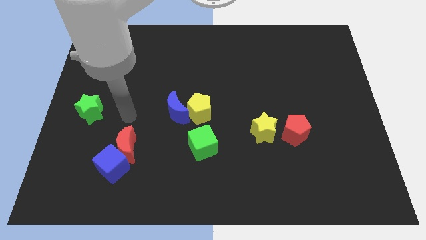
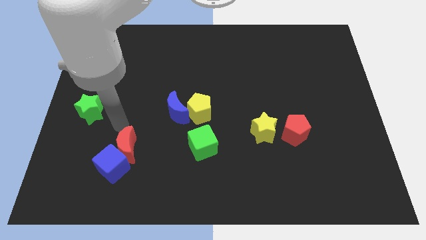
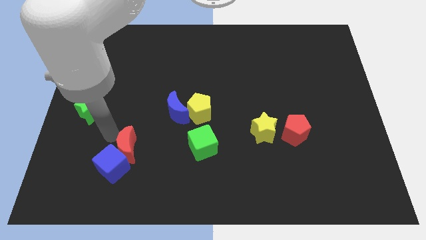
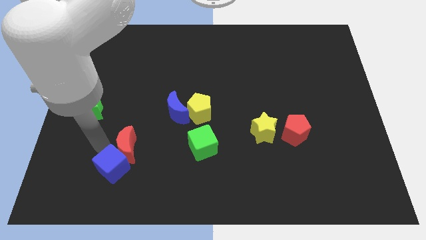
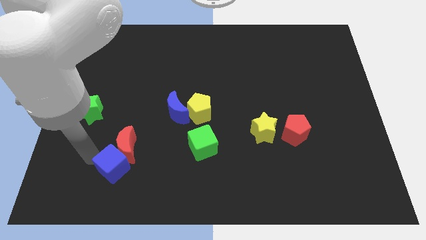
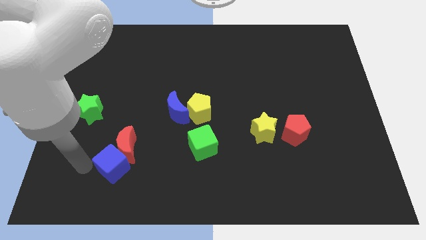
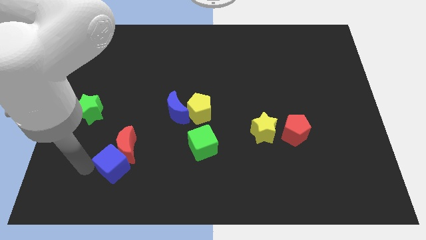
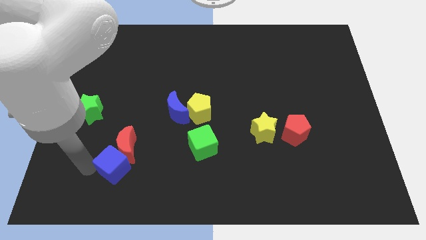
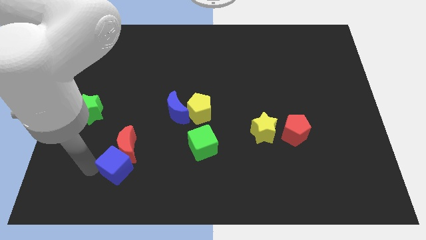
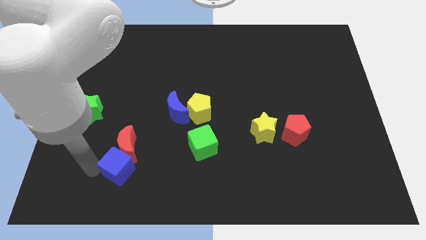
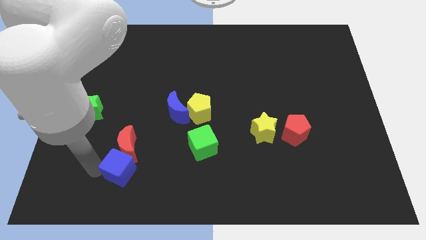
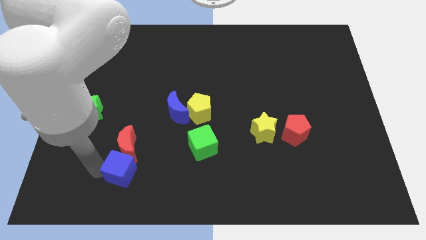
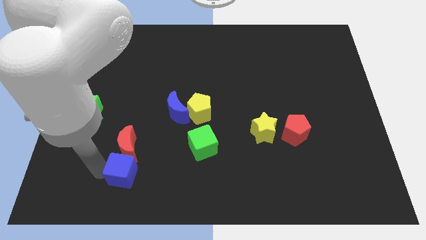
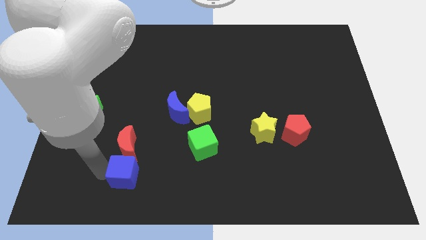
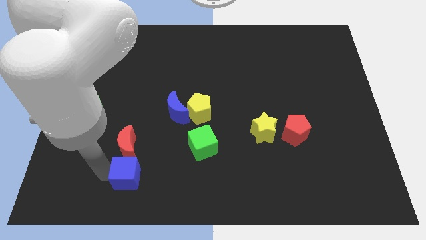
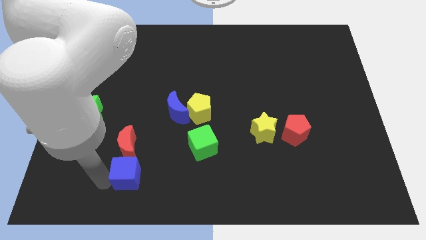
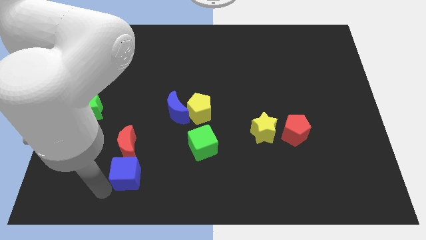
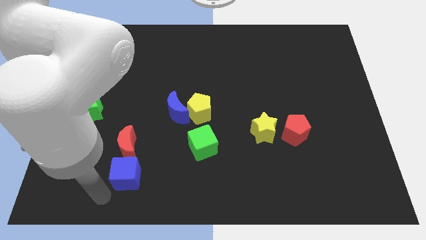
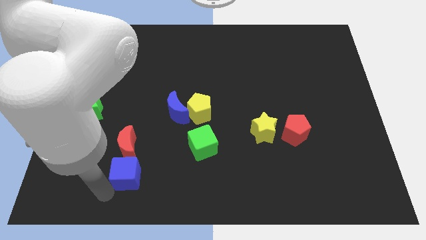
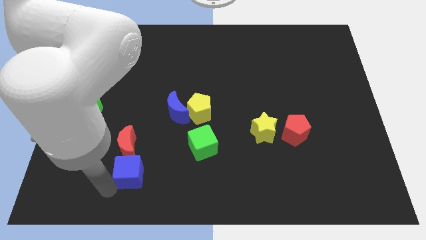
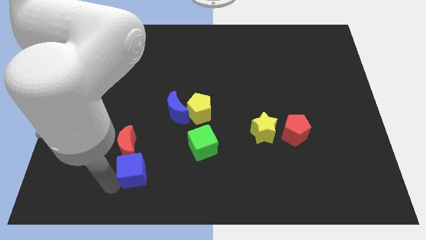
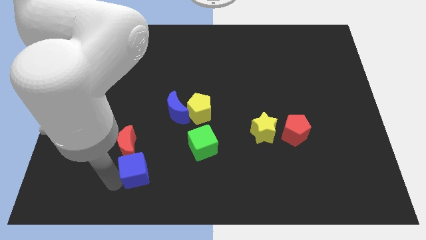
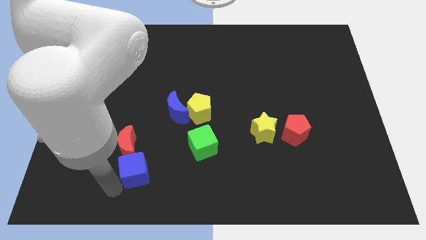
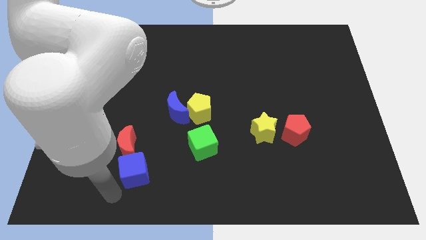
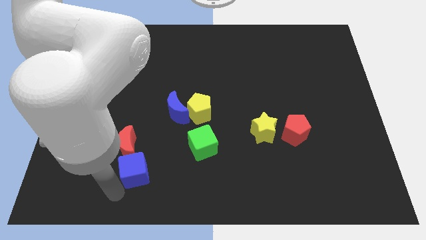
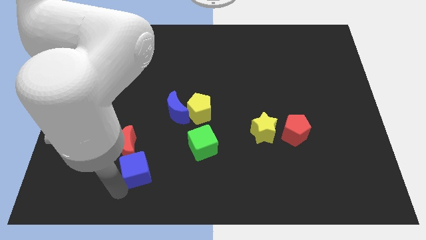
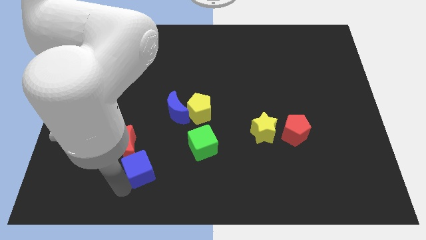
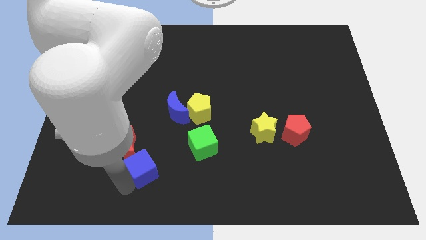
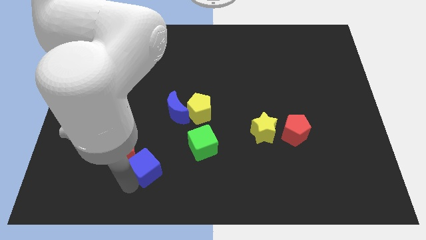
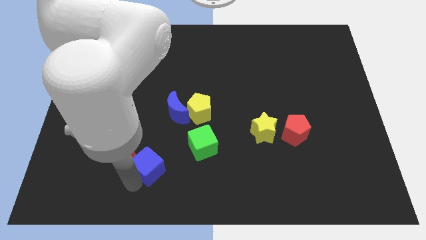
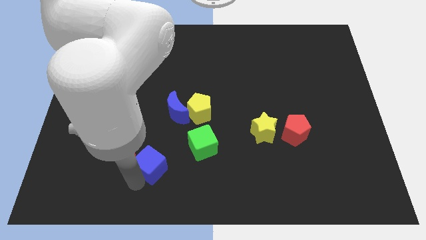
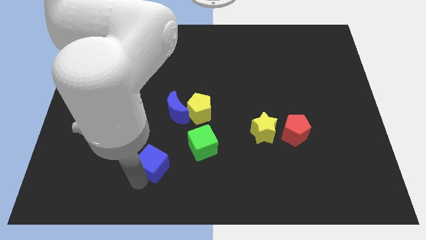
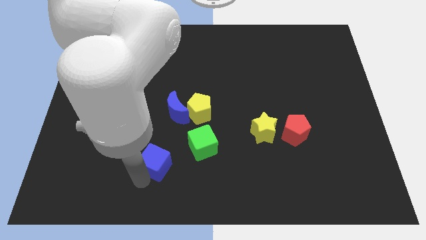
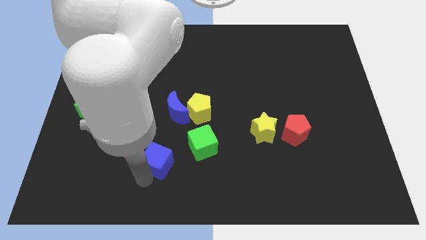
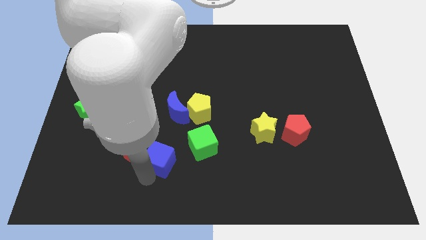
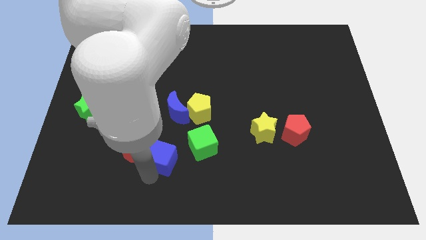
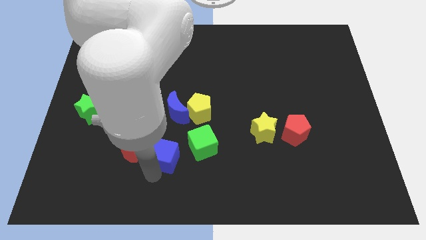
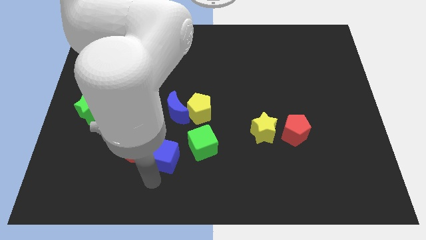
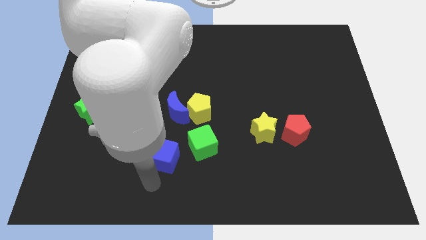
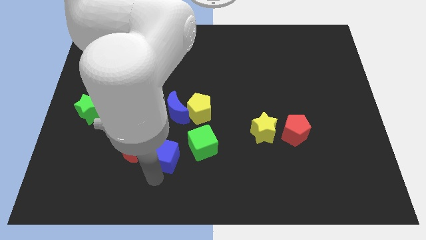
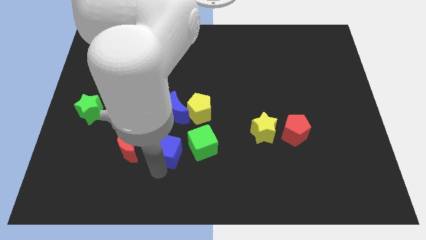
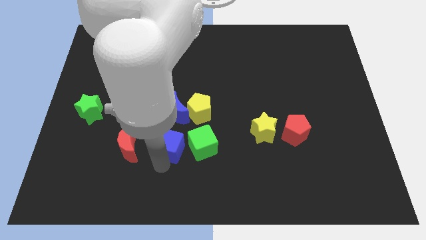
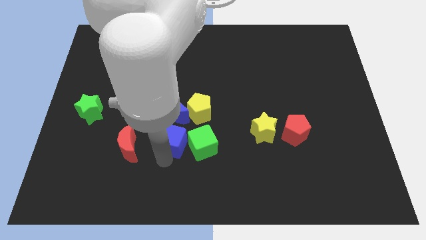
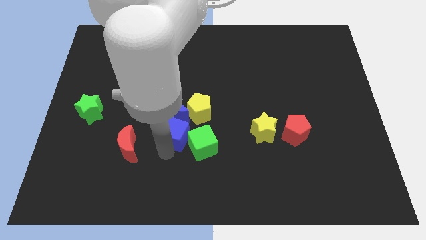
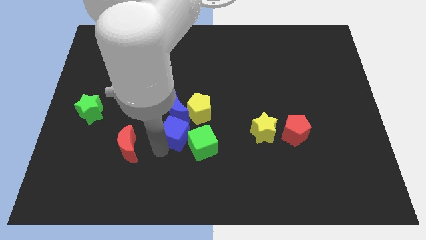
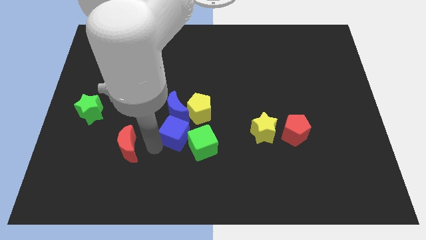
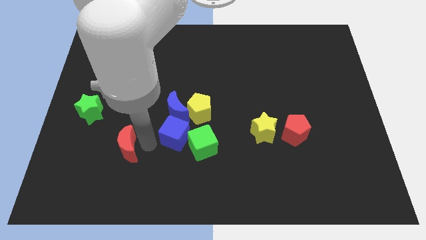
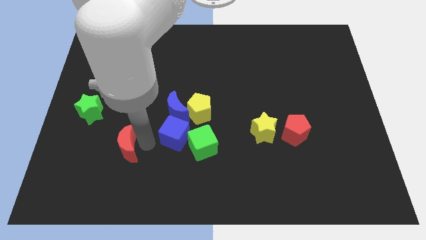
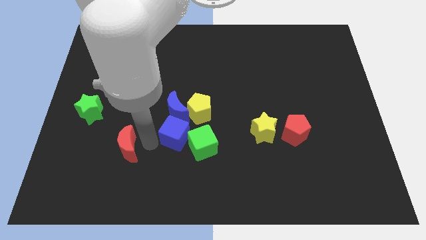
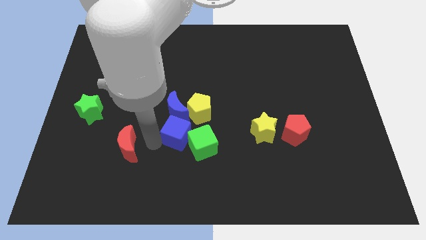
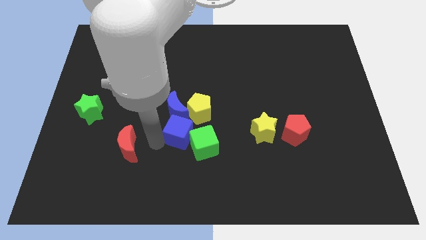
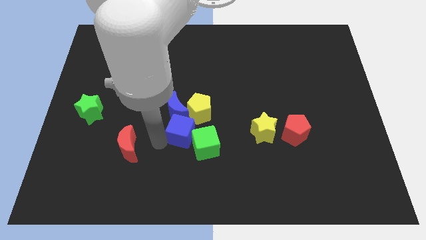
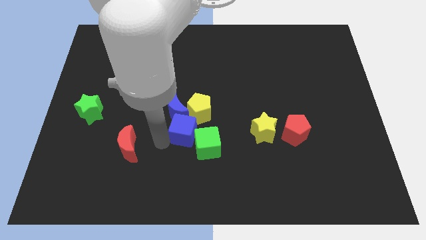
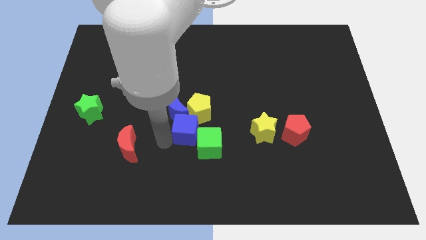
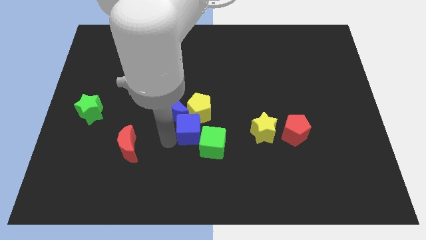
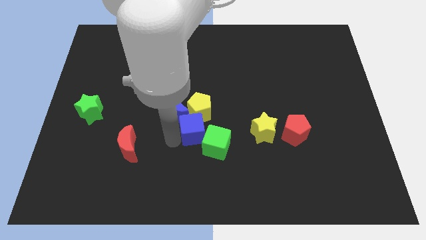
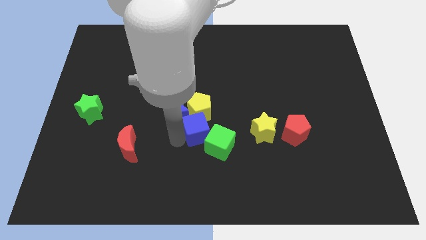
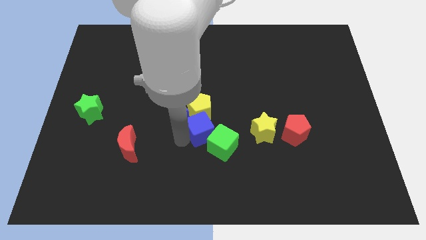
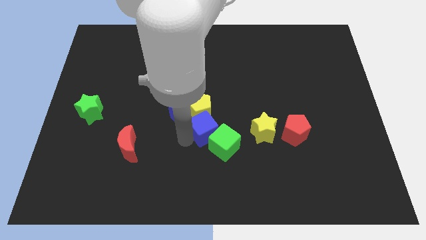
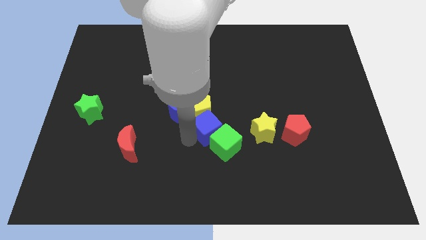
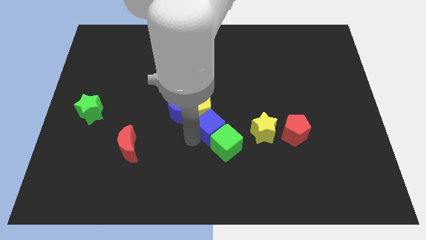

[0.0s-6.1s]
move the blue cube right of the blue moon

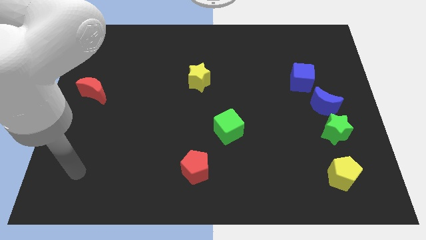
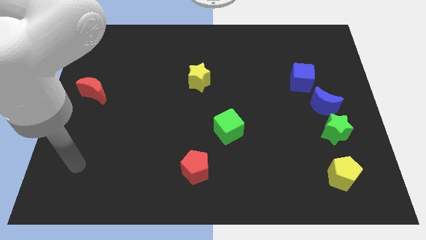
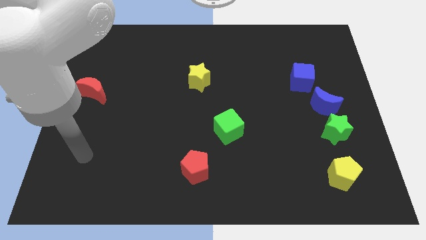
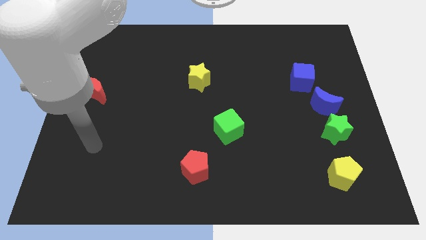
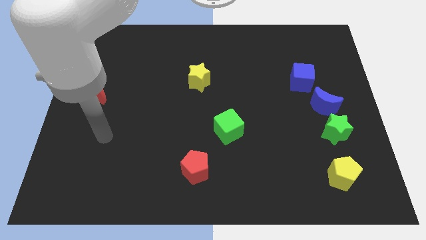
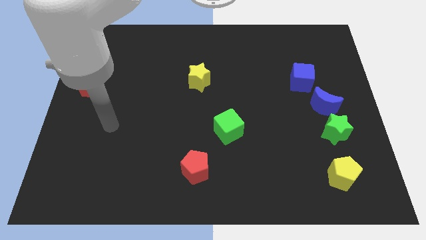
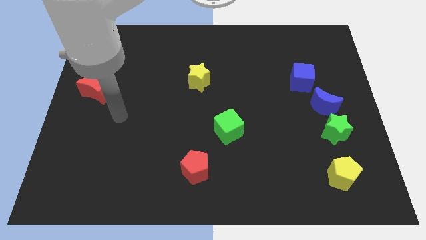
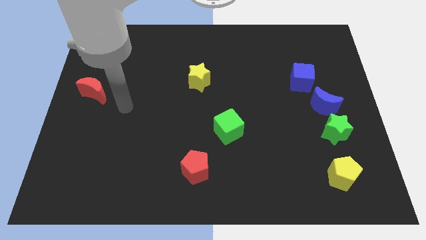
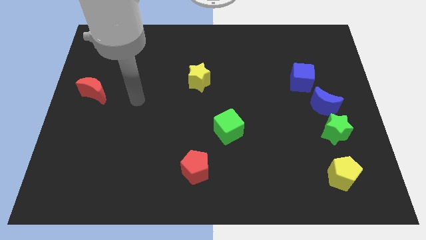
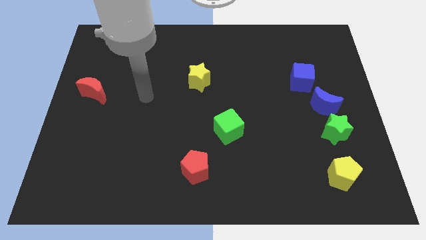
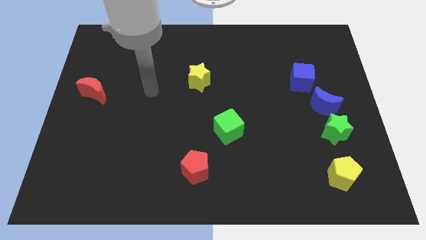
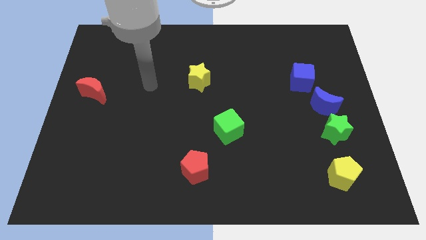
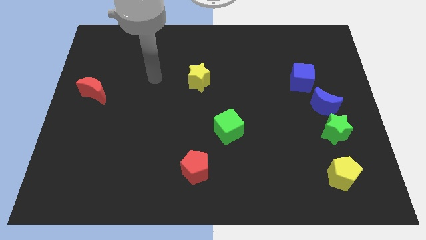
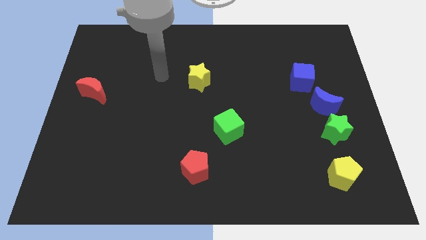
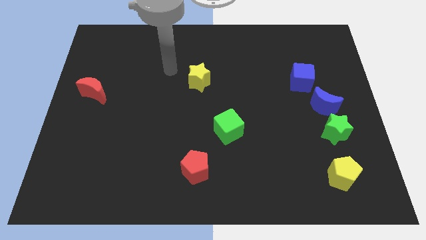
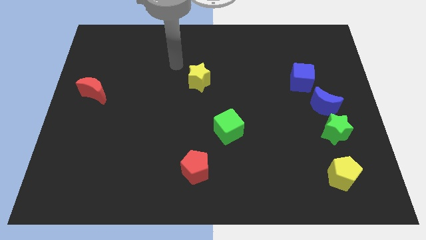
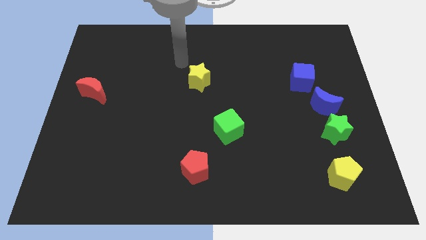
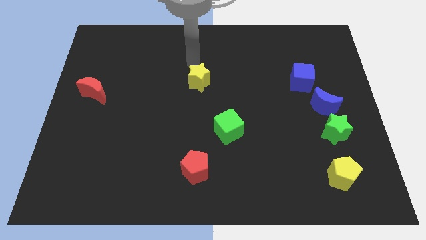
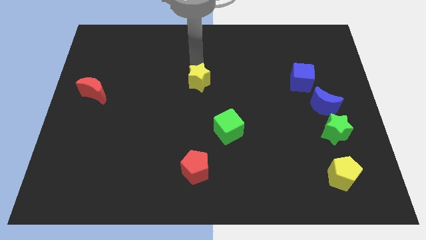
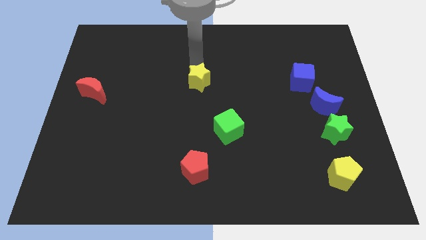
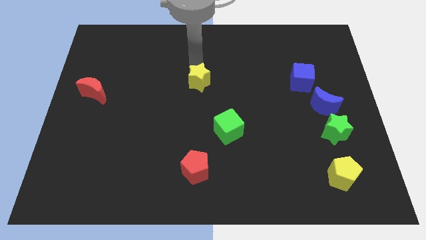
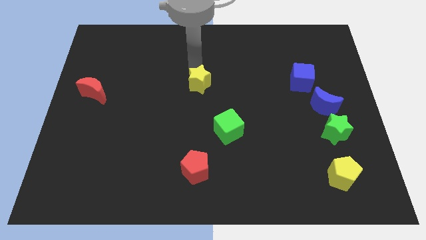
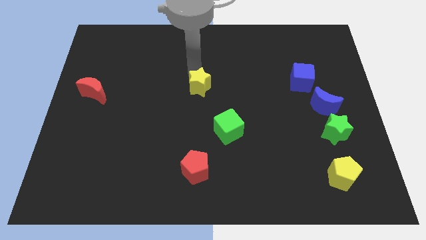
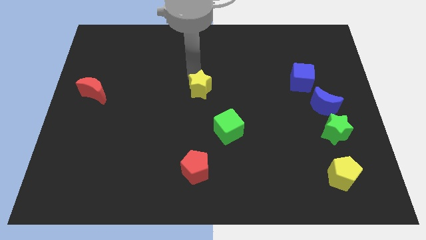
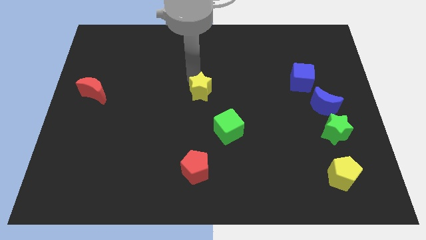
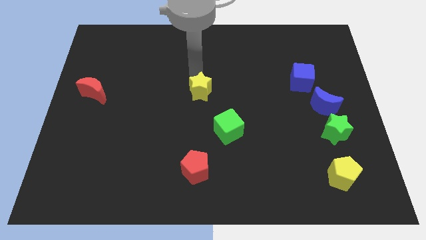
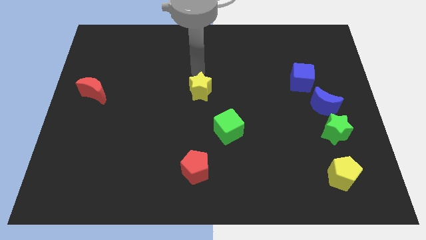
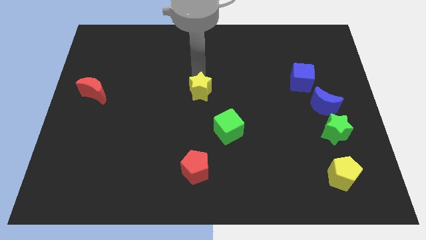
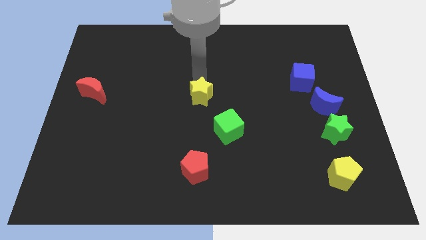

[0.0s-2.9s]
push the yellow star to the top left of the green cube
